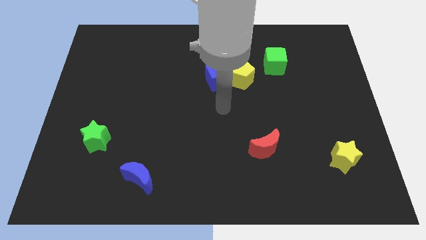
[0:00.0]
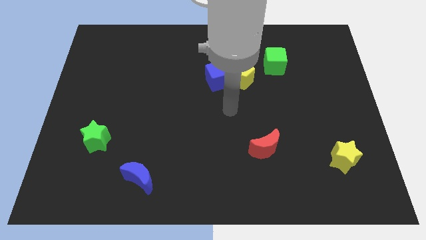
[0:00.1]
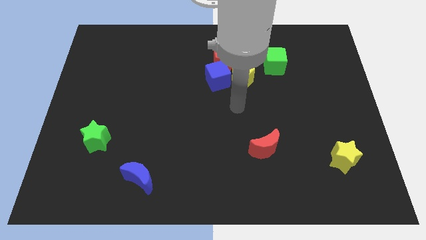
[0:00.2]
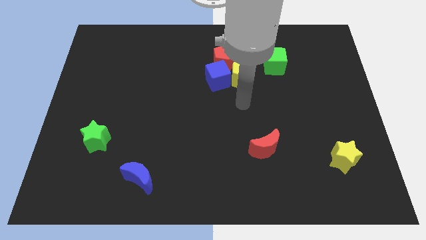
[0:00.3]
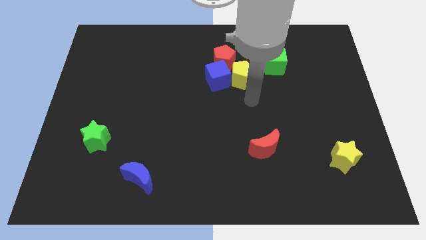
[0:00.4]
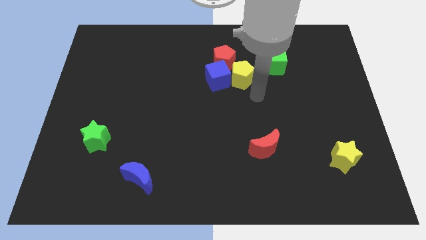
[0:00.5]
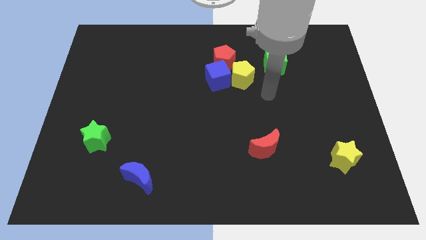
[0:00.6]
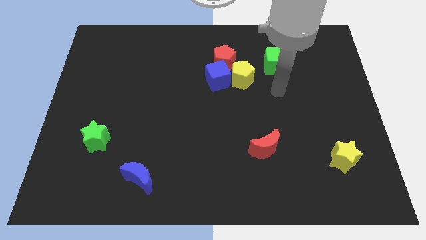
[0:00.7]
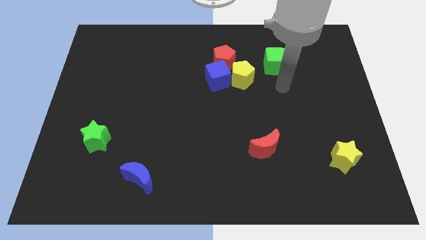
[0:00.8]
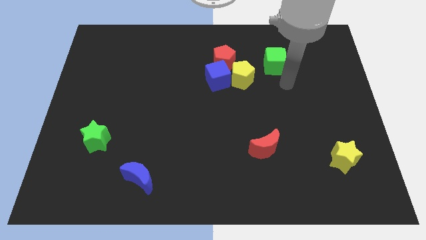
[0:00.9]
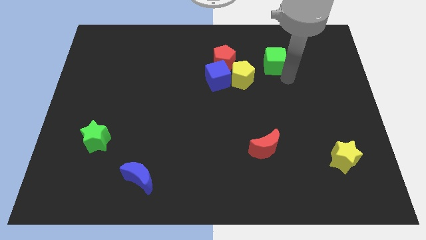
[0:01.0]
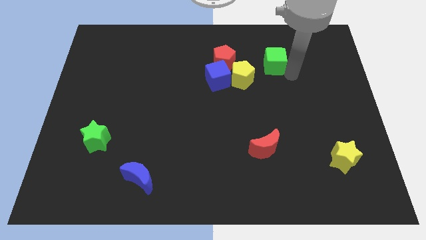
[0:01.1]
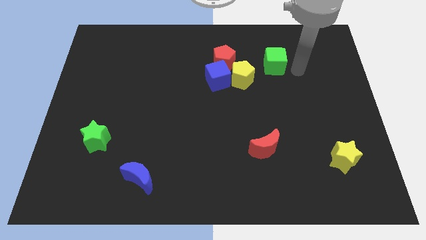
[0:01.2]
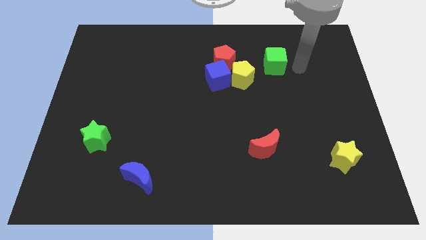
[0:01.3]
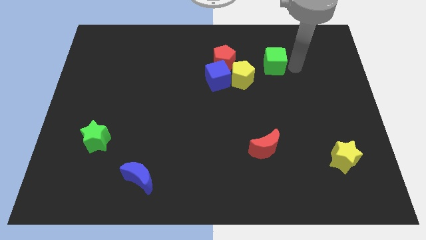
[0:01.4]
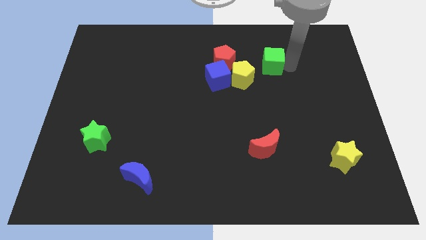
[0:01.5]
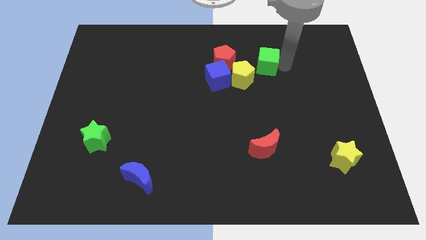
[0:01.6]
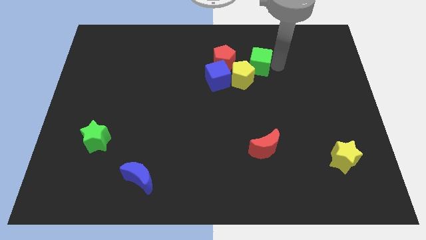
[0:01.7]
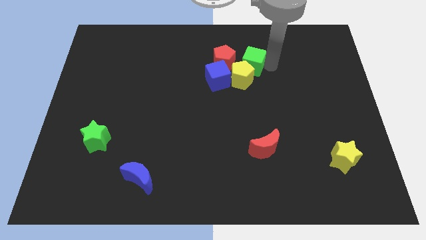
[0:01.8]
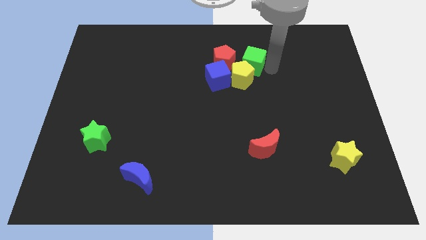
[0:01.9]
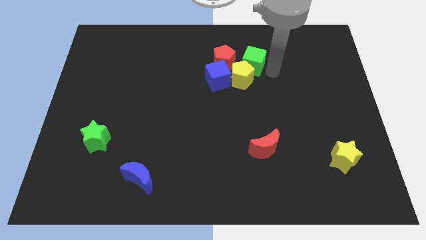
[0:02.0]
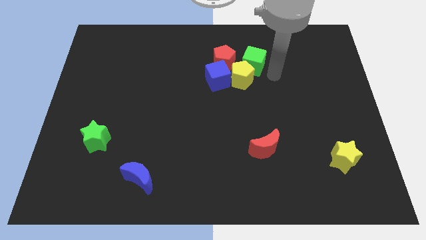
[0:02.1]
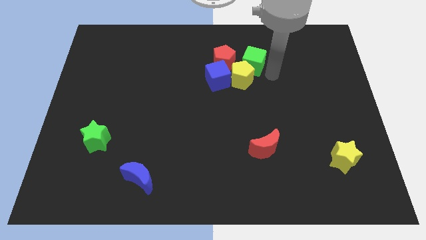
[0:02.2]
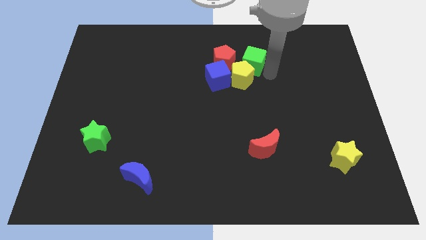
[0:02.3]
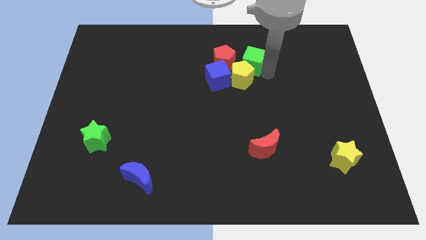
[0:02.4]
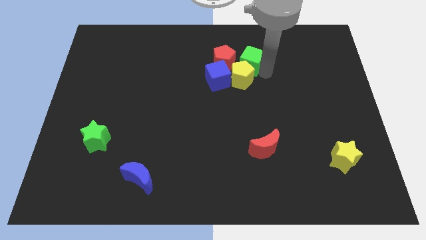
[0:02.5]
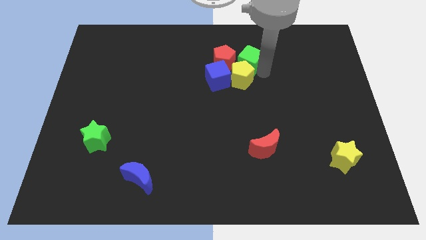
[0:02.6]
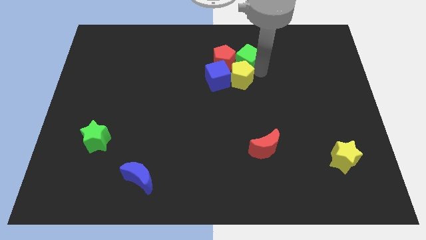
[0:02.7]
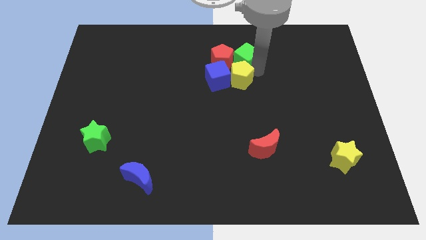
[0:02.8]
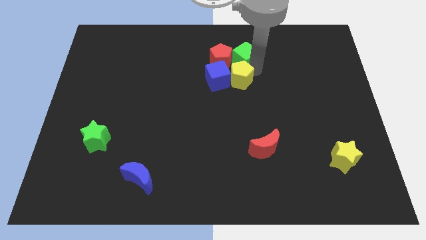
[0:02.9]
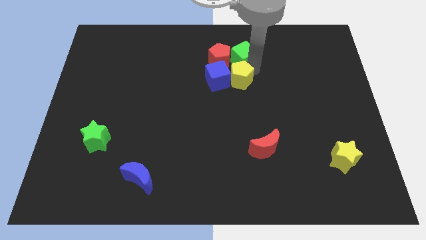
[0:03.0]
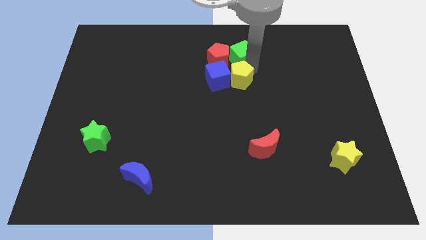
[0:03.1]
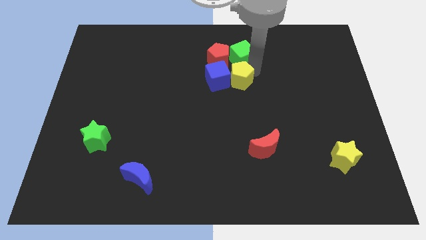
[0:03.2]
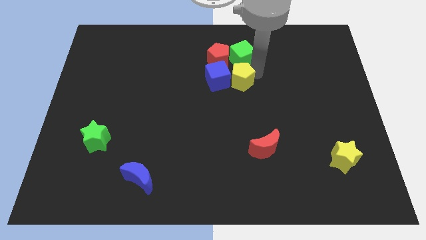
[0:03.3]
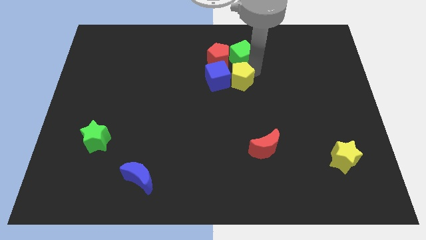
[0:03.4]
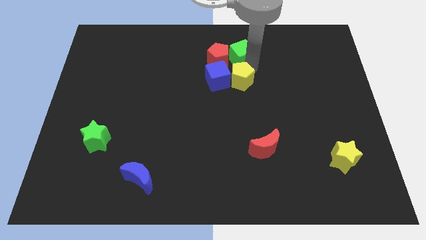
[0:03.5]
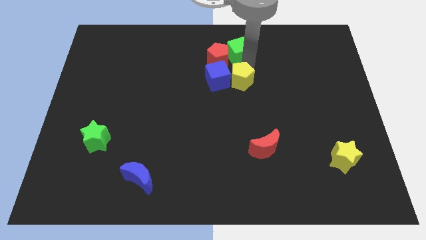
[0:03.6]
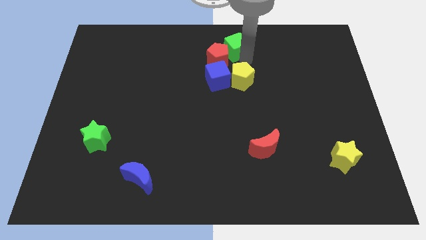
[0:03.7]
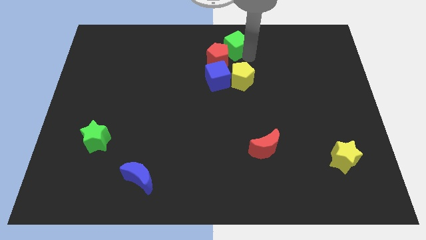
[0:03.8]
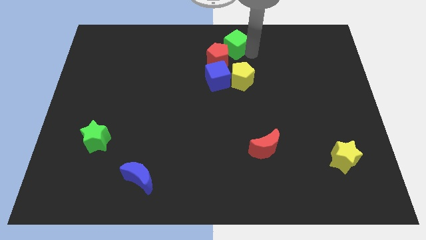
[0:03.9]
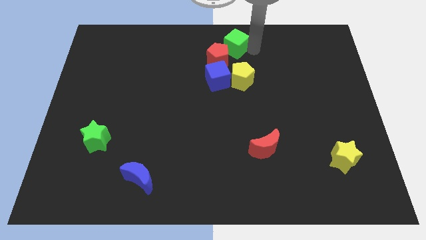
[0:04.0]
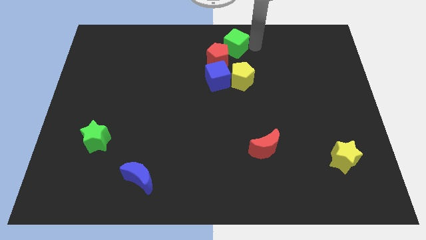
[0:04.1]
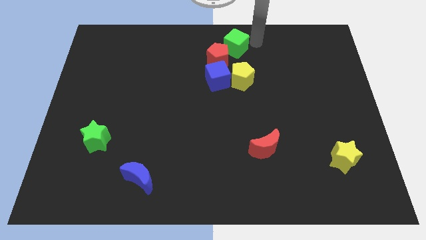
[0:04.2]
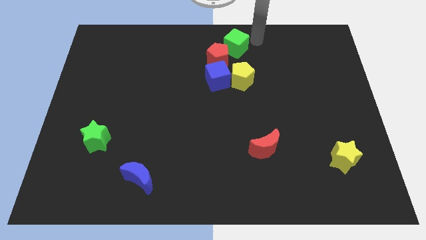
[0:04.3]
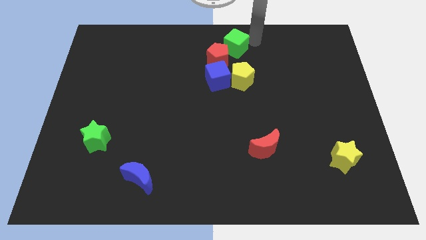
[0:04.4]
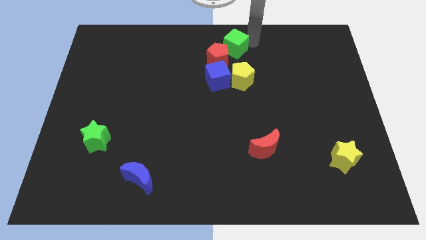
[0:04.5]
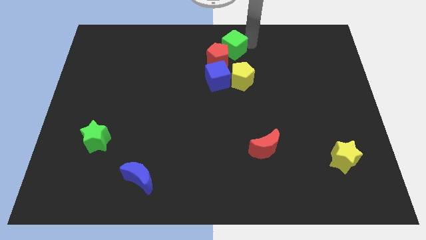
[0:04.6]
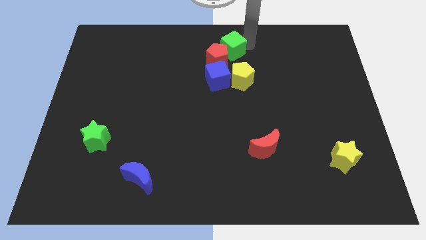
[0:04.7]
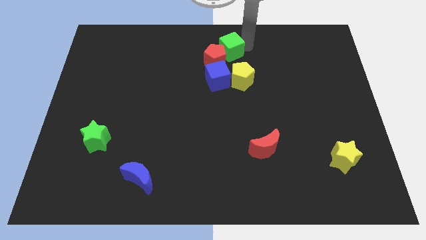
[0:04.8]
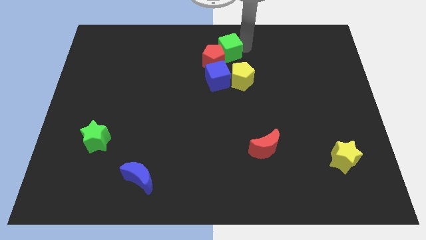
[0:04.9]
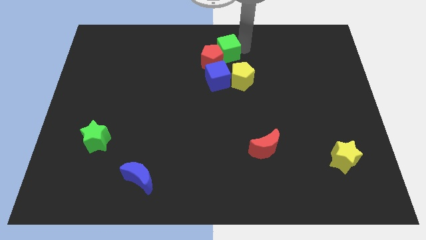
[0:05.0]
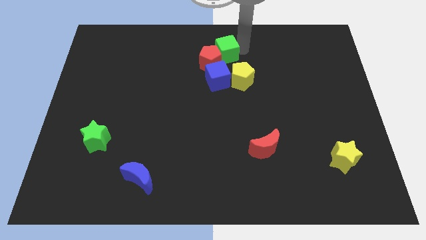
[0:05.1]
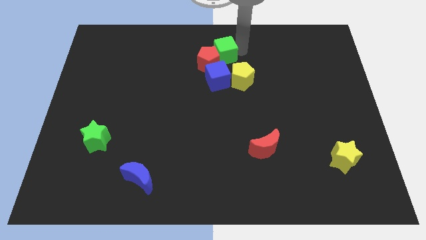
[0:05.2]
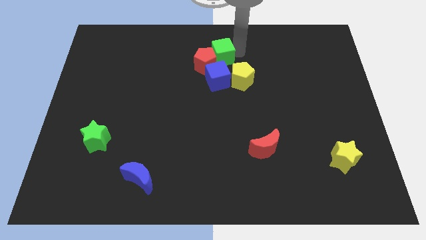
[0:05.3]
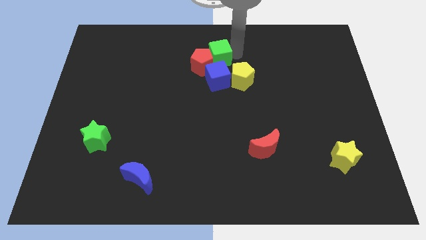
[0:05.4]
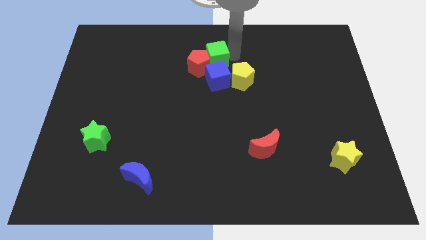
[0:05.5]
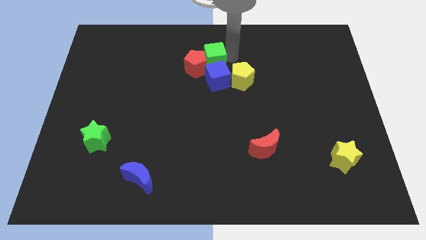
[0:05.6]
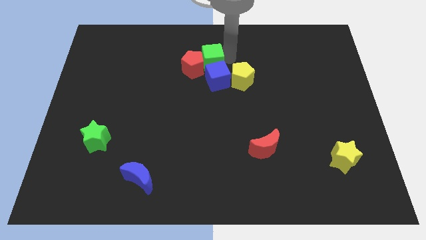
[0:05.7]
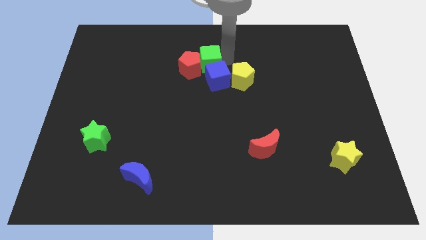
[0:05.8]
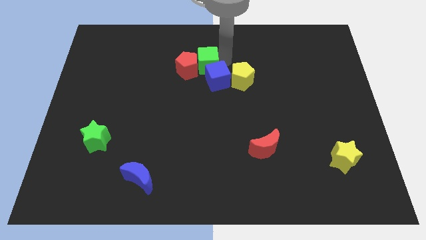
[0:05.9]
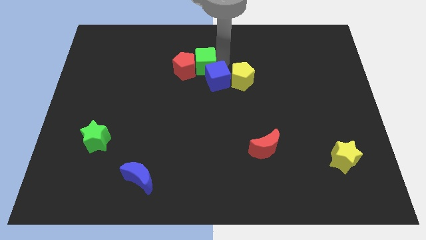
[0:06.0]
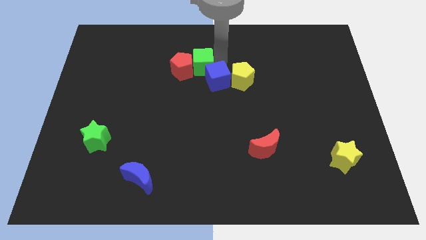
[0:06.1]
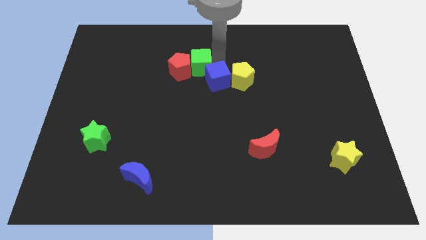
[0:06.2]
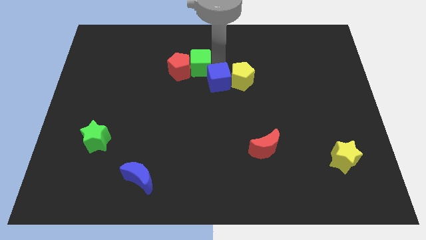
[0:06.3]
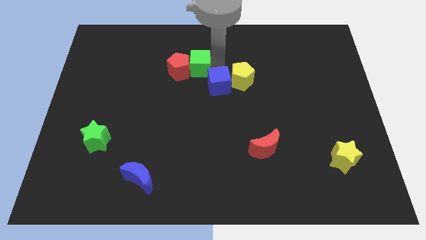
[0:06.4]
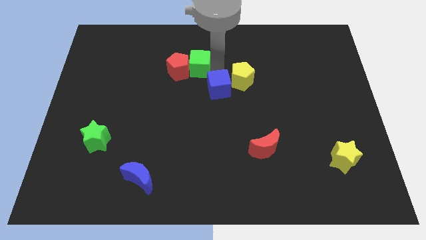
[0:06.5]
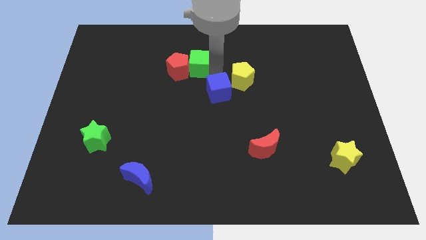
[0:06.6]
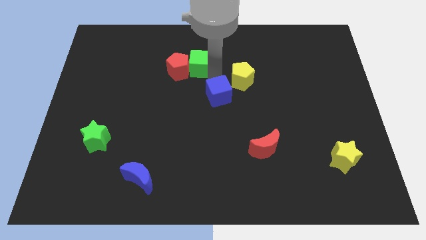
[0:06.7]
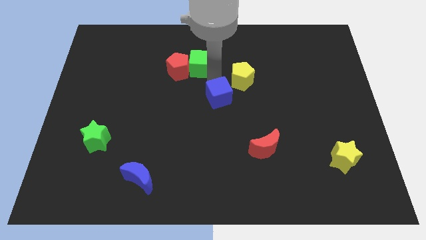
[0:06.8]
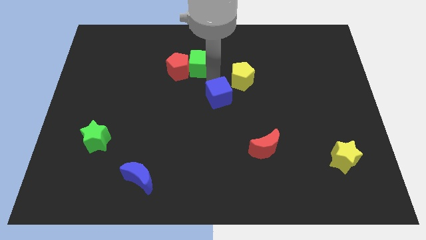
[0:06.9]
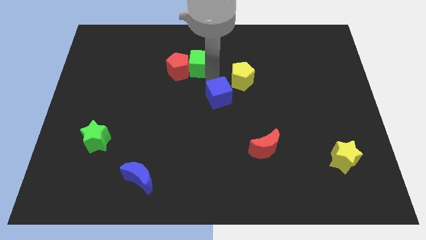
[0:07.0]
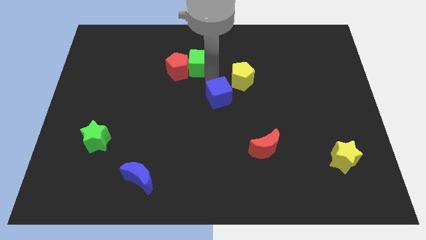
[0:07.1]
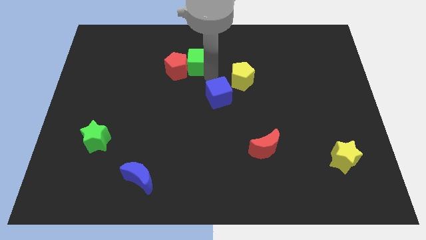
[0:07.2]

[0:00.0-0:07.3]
slide the green cube left

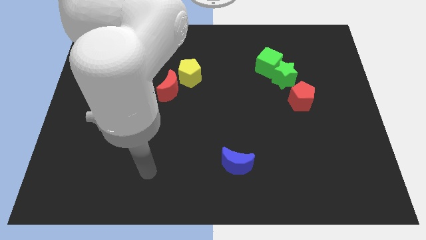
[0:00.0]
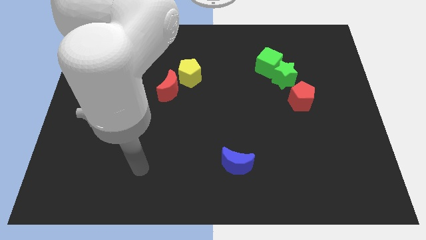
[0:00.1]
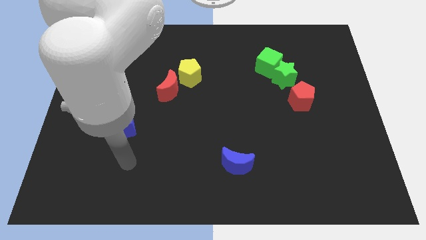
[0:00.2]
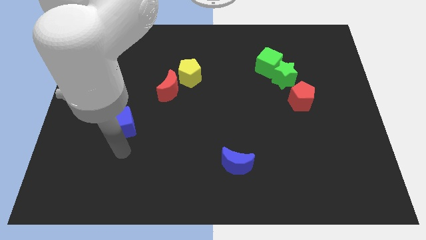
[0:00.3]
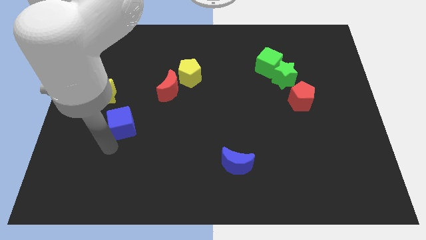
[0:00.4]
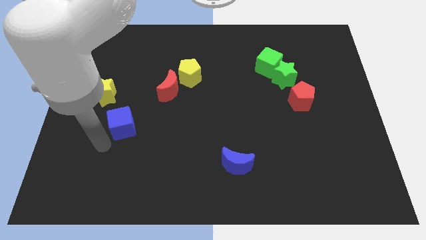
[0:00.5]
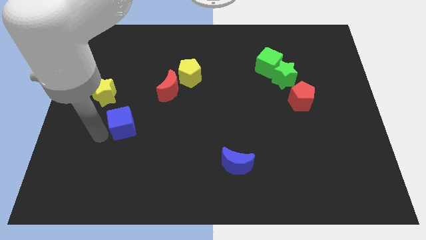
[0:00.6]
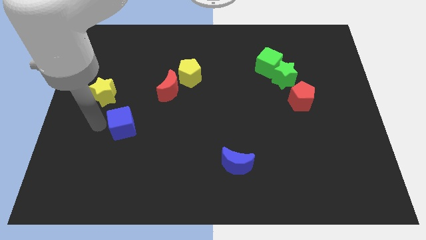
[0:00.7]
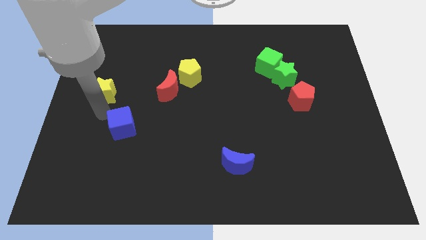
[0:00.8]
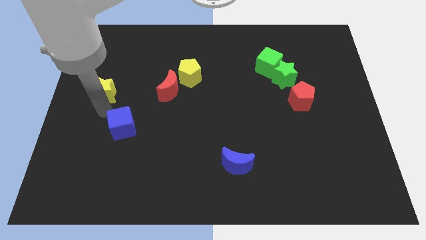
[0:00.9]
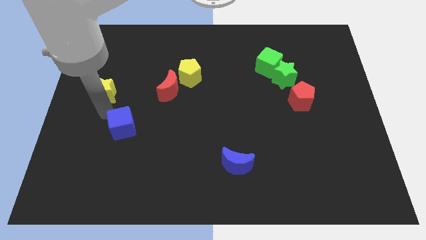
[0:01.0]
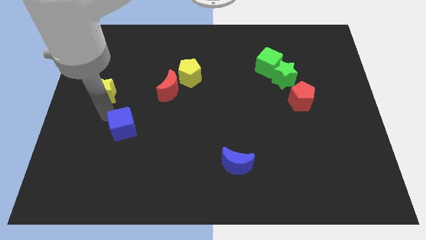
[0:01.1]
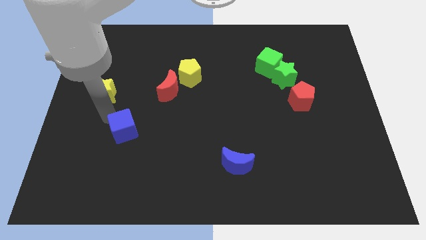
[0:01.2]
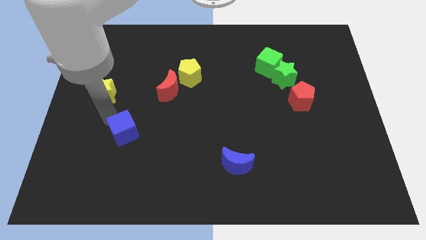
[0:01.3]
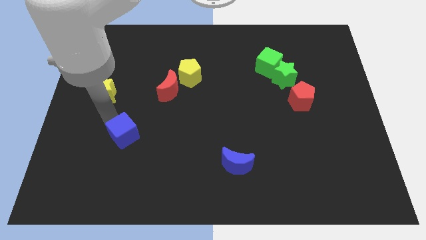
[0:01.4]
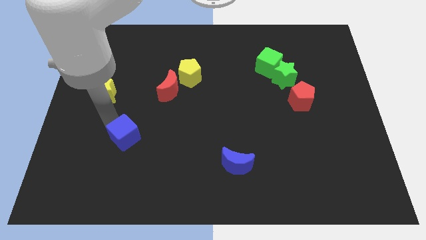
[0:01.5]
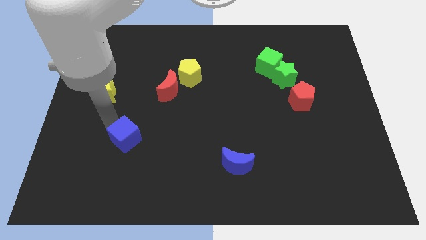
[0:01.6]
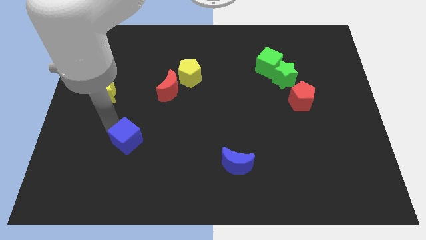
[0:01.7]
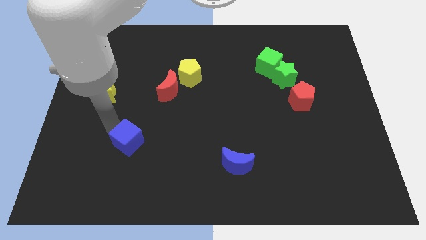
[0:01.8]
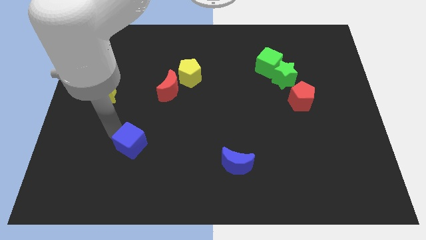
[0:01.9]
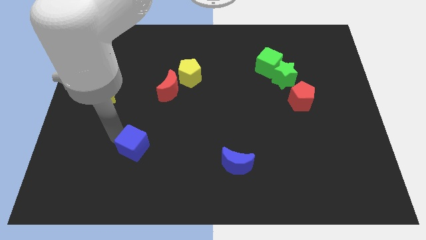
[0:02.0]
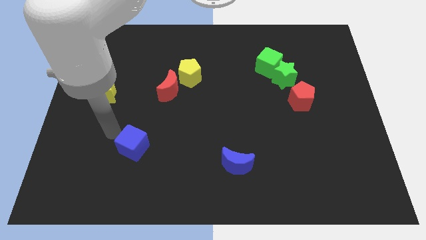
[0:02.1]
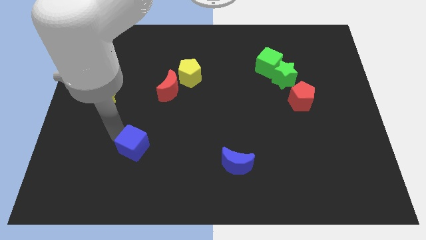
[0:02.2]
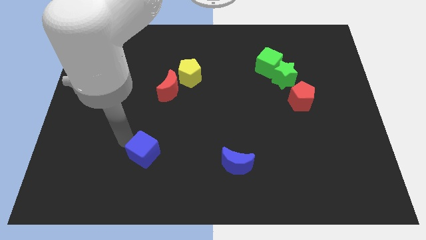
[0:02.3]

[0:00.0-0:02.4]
slide the blue cube diagonally downwards and to the right slightly
